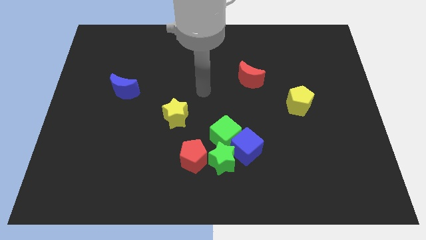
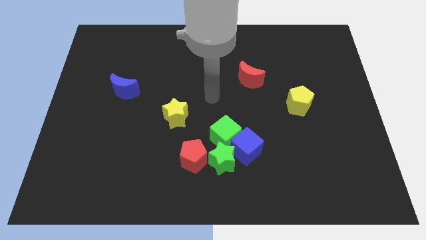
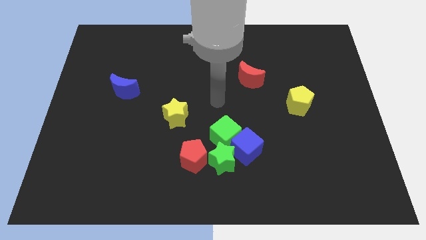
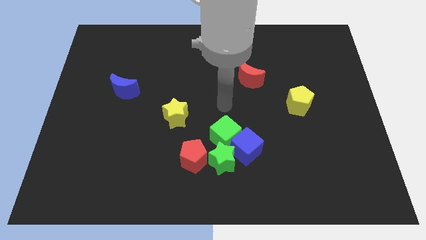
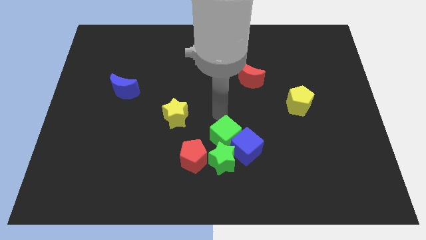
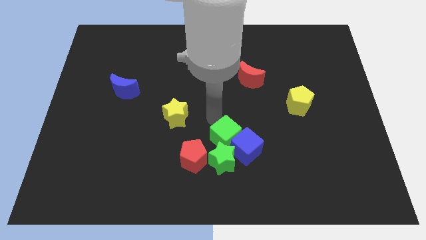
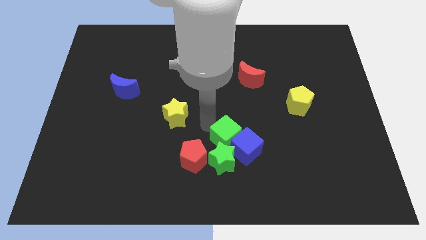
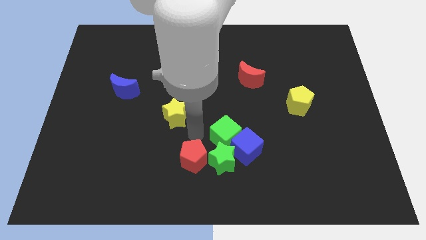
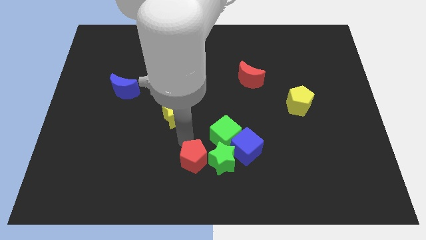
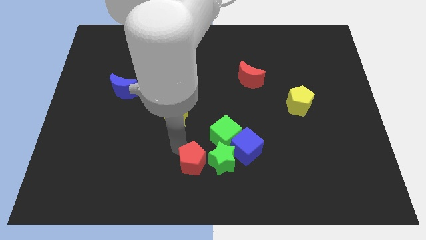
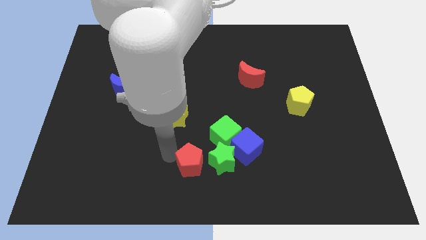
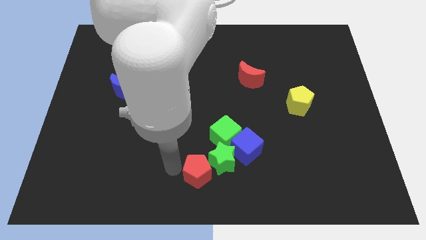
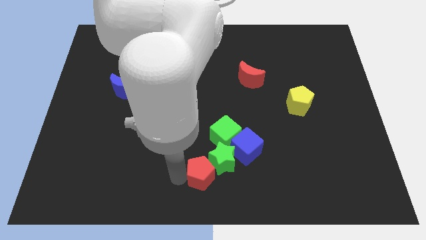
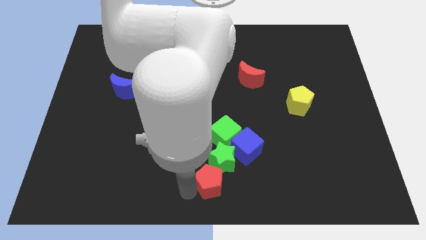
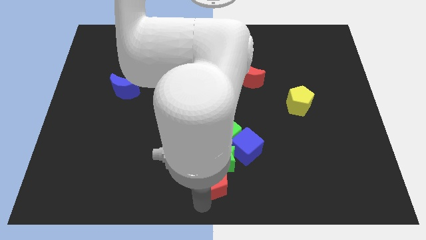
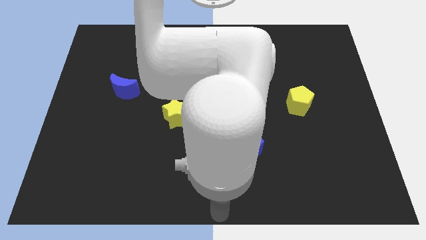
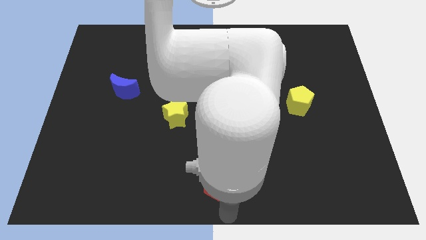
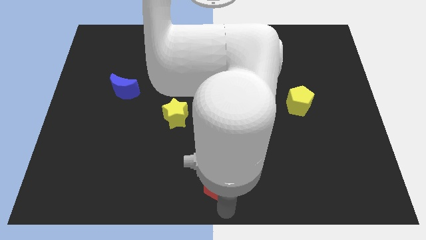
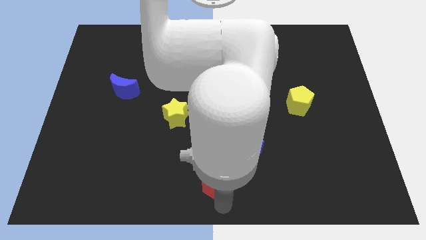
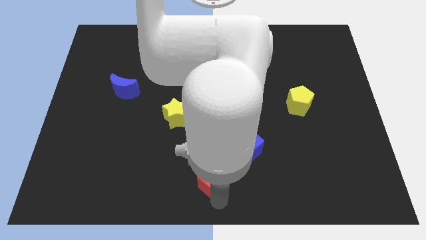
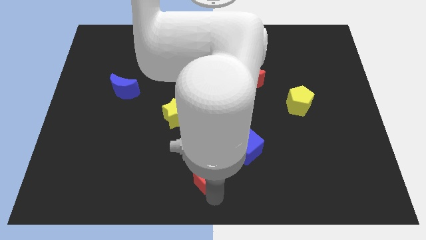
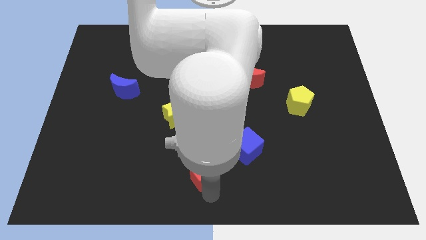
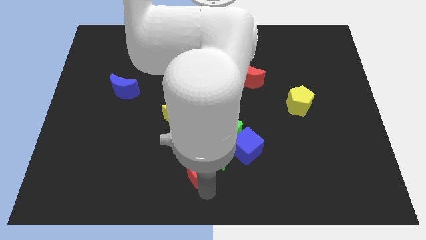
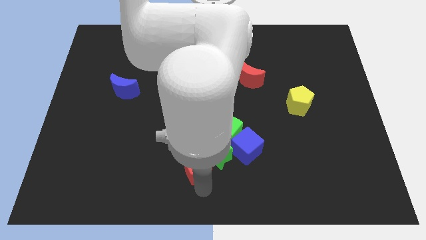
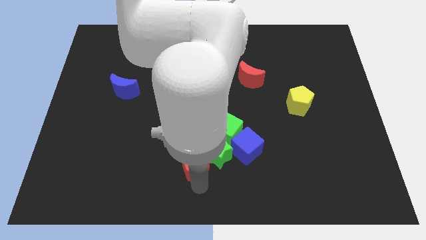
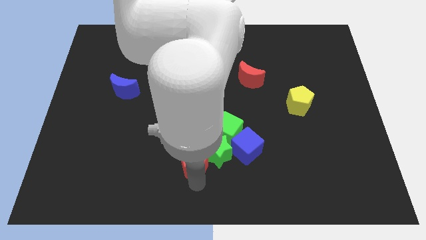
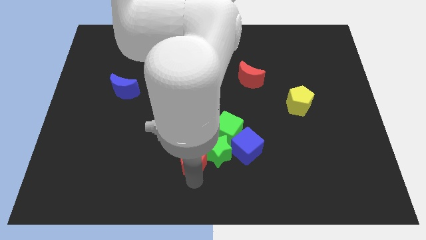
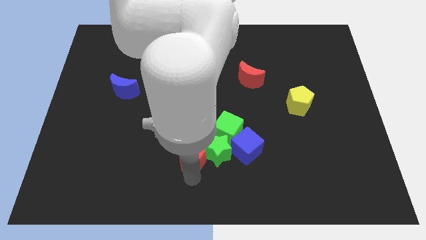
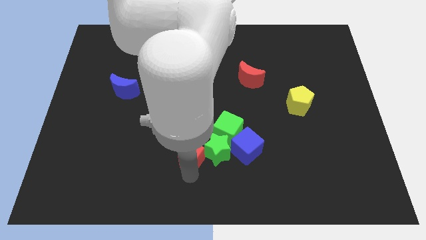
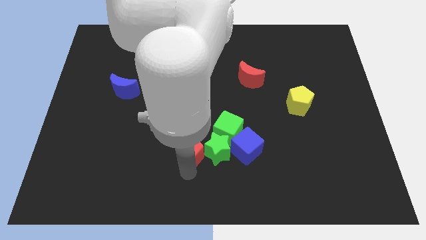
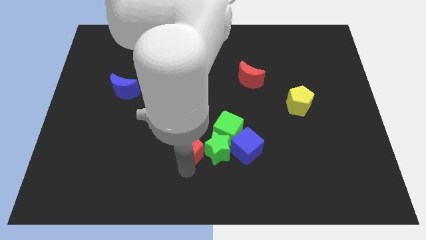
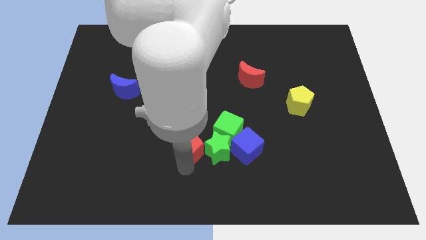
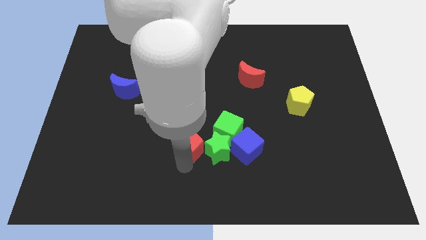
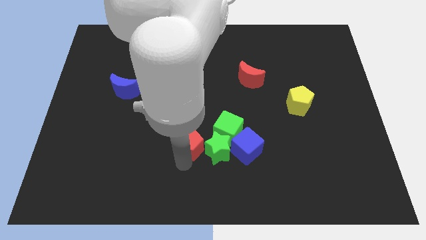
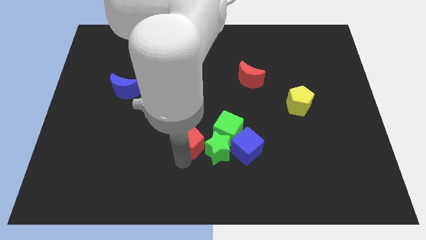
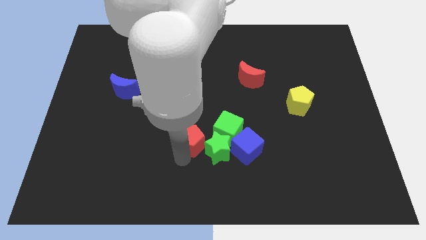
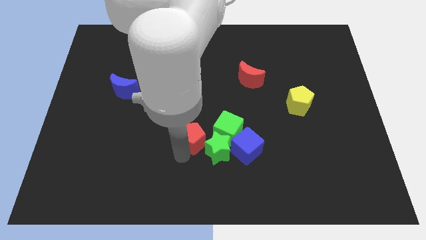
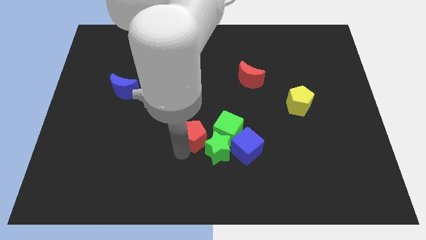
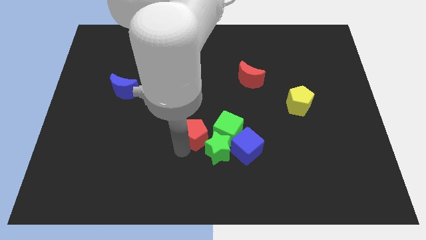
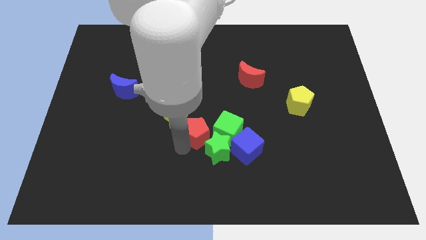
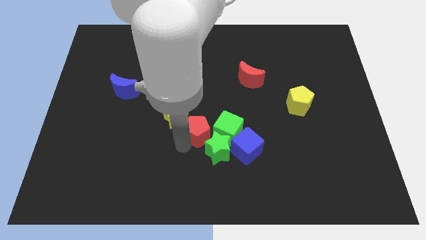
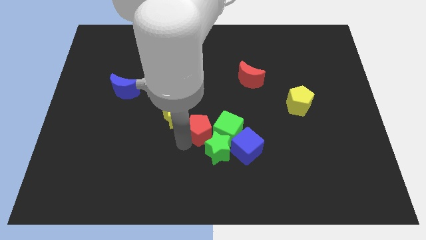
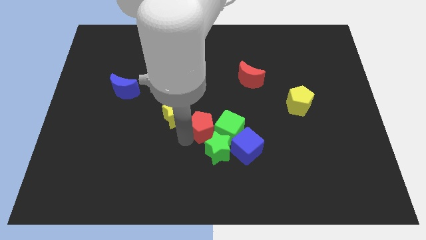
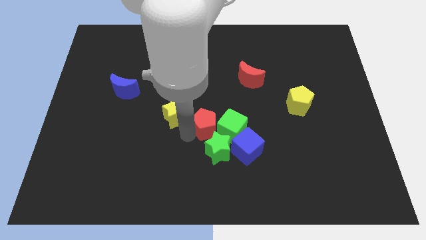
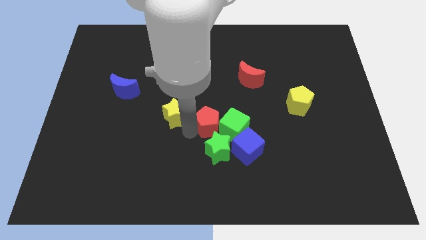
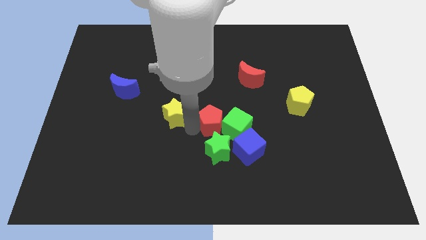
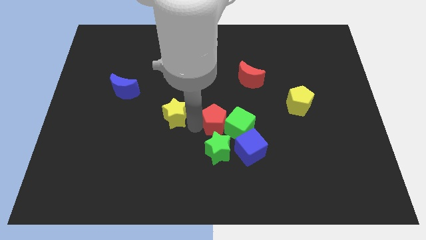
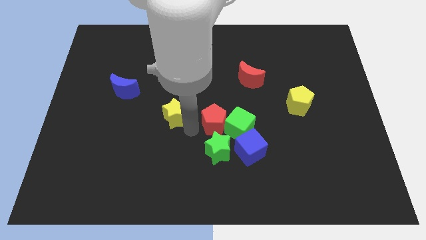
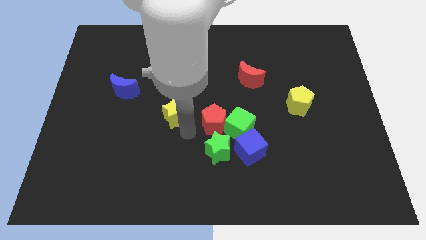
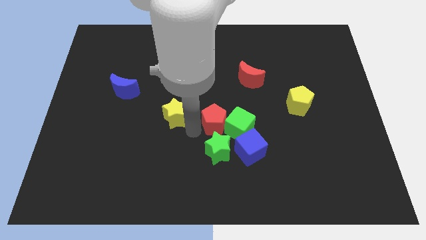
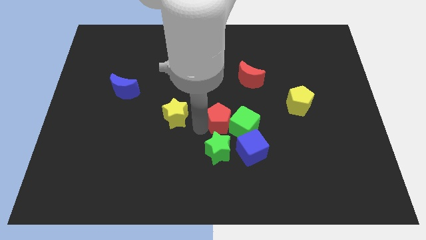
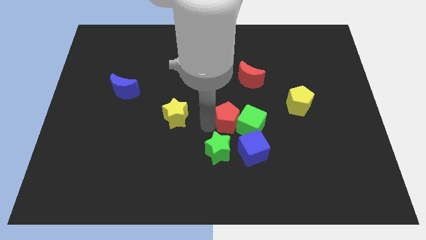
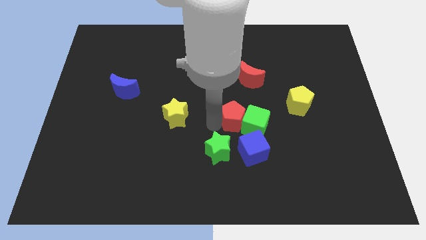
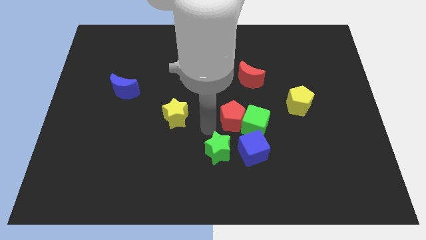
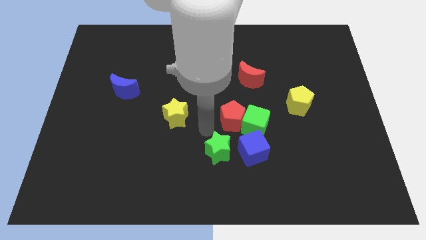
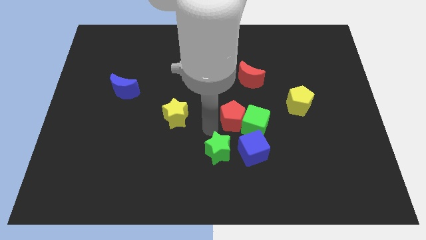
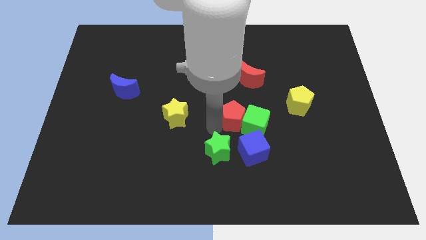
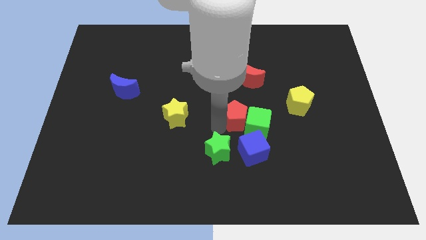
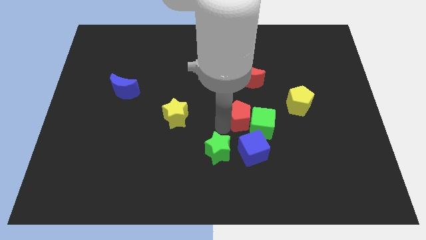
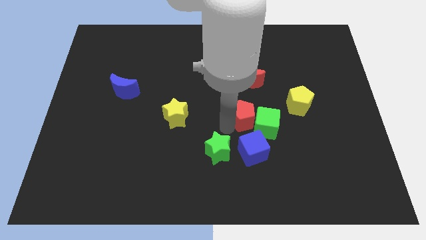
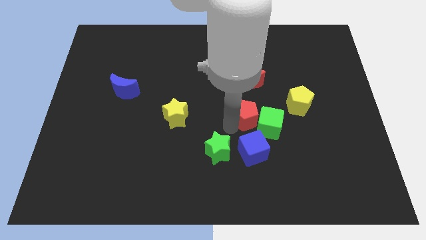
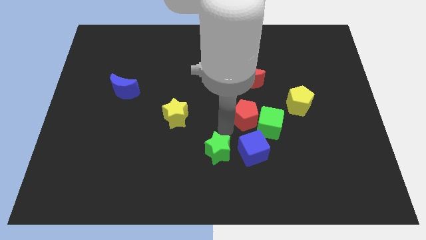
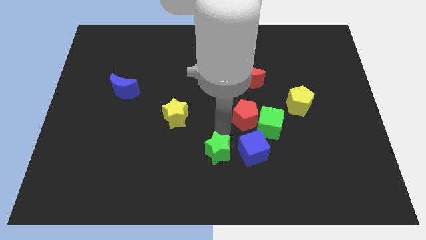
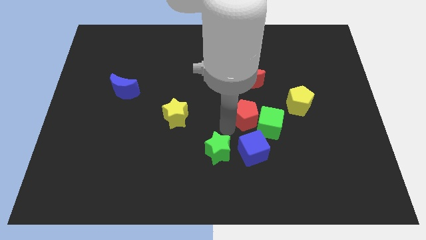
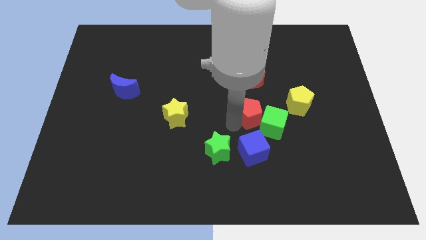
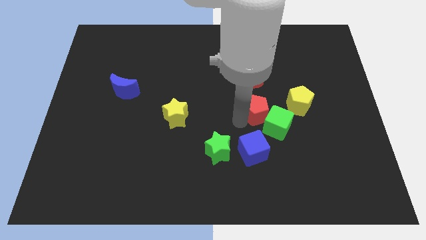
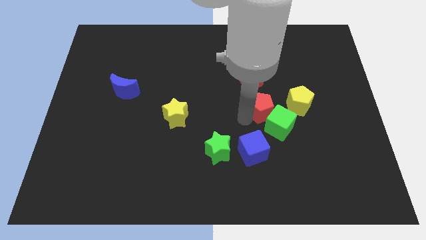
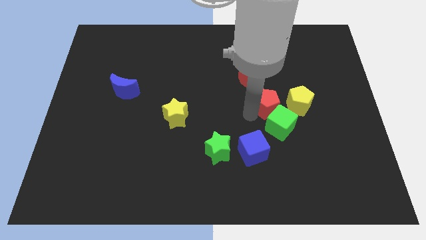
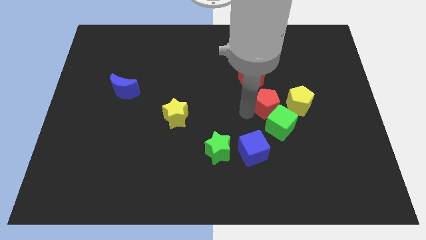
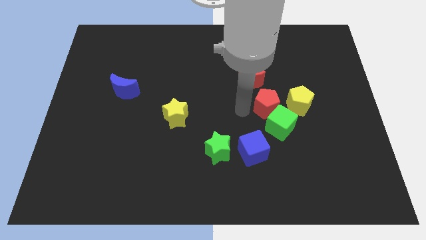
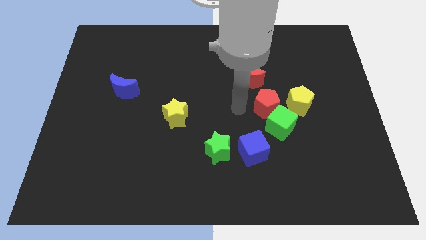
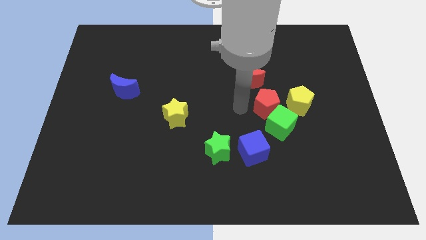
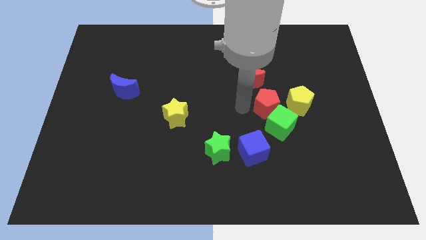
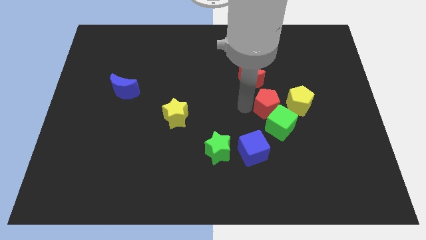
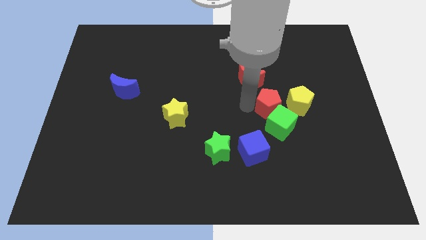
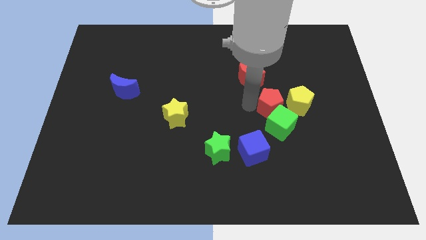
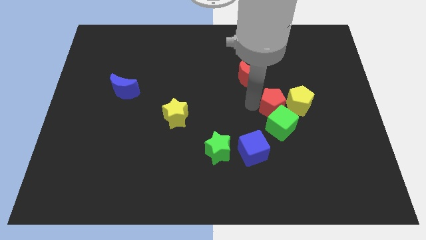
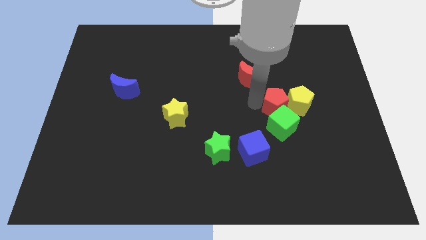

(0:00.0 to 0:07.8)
put the red pentagon close to the yellow pentagon
